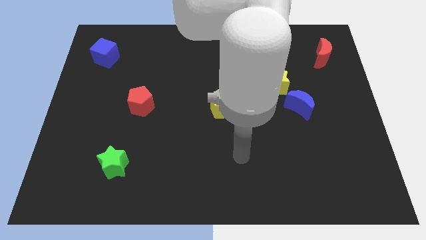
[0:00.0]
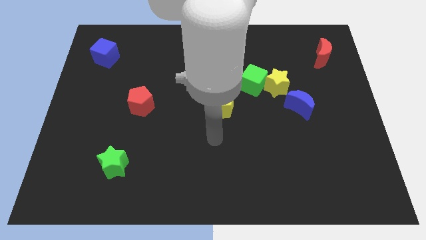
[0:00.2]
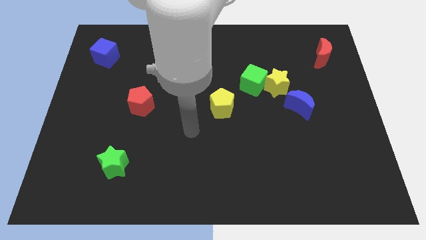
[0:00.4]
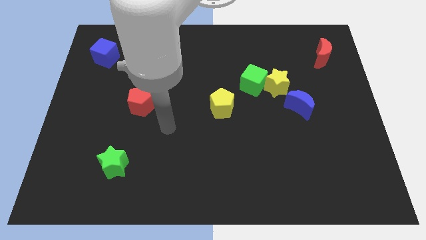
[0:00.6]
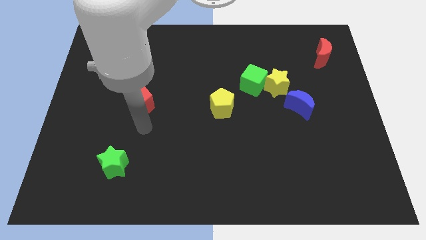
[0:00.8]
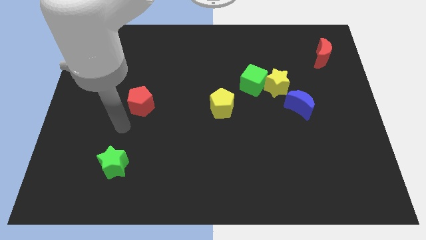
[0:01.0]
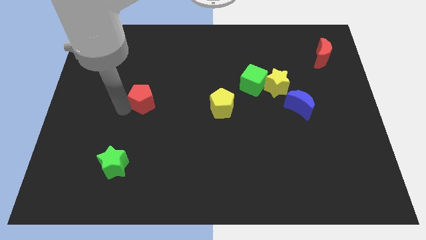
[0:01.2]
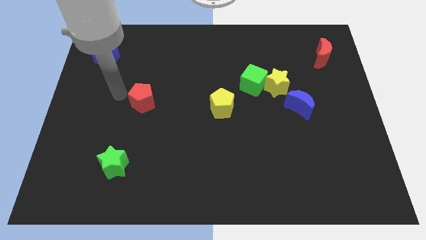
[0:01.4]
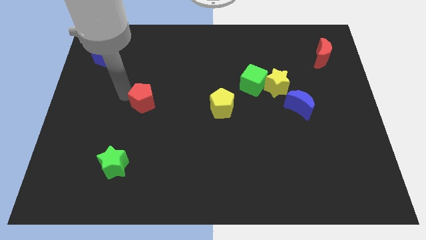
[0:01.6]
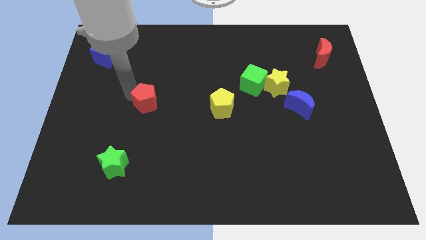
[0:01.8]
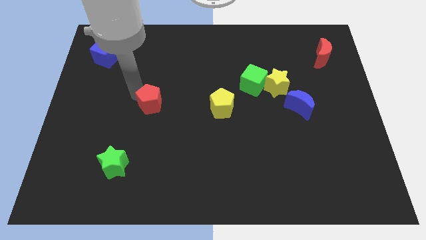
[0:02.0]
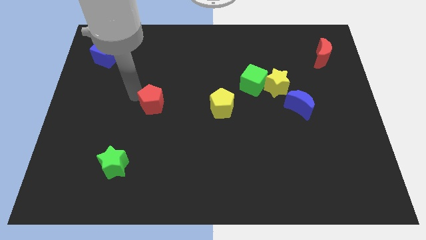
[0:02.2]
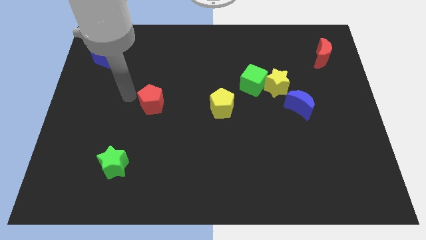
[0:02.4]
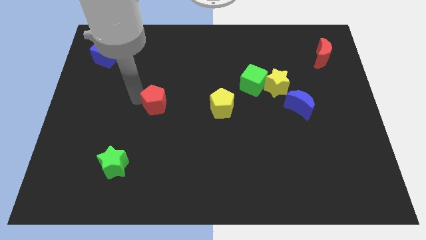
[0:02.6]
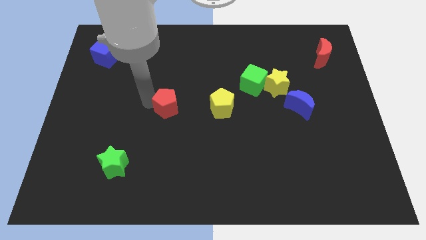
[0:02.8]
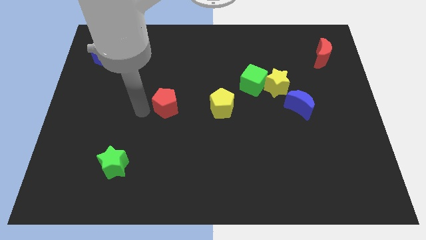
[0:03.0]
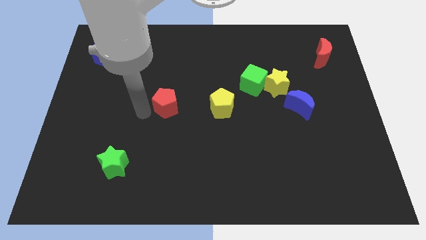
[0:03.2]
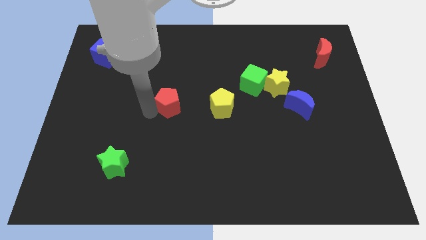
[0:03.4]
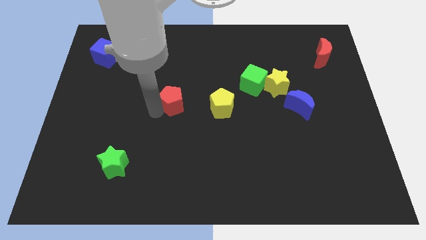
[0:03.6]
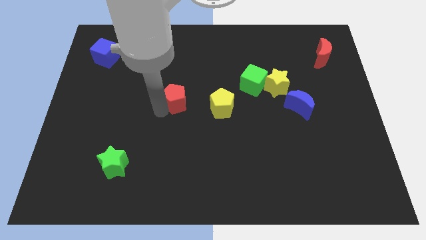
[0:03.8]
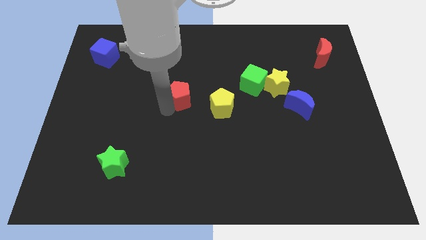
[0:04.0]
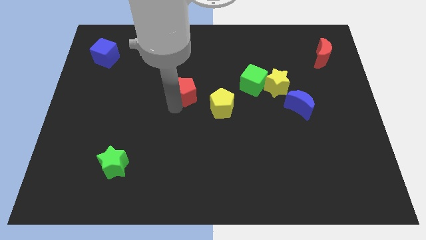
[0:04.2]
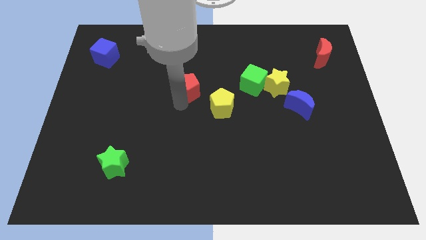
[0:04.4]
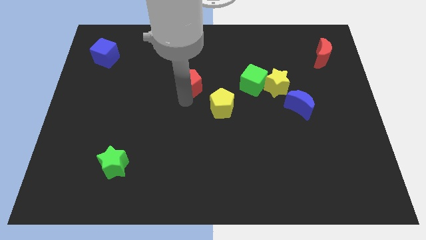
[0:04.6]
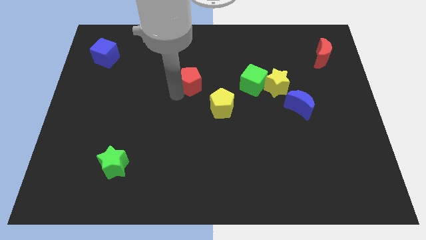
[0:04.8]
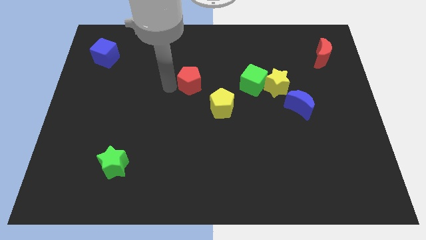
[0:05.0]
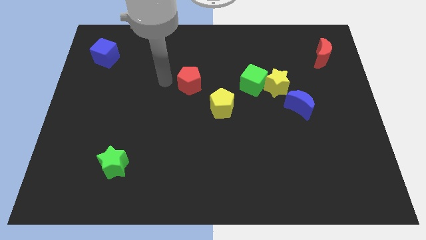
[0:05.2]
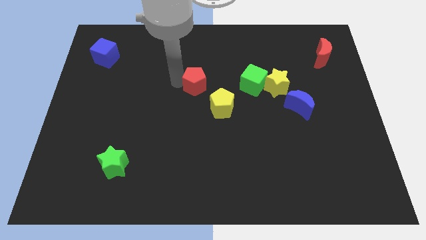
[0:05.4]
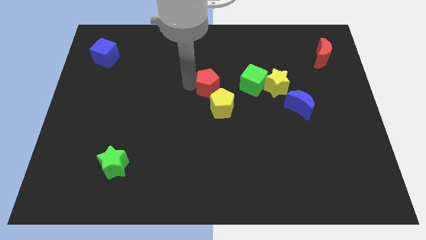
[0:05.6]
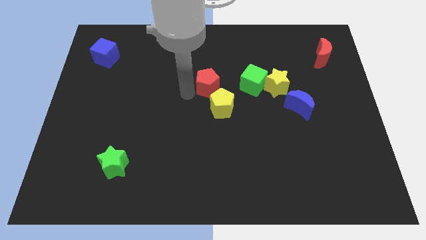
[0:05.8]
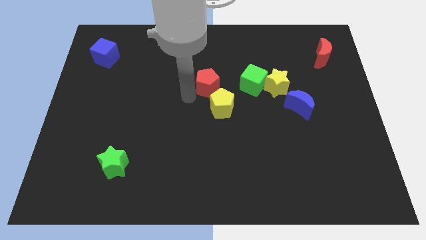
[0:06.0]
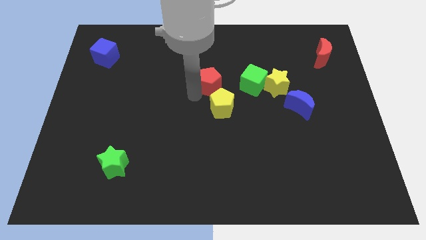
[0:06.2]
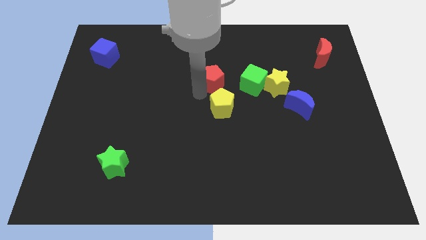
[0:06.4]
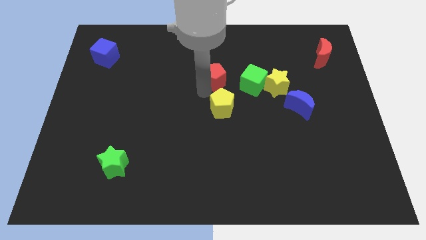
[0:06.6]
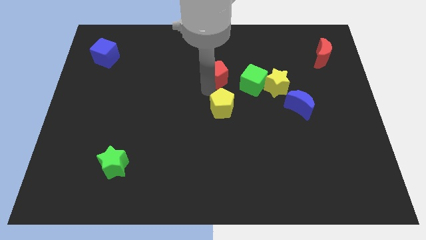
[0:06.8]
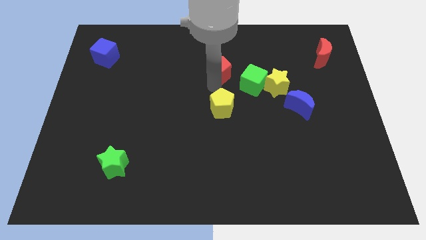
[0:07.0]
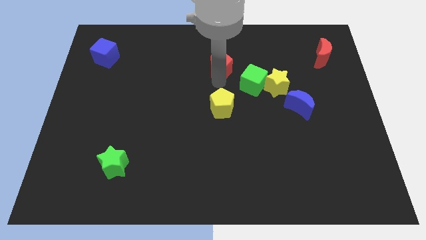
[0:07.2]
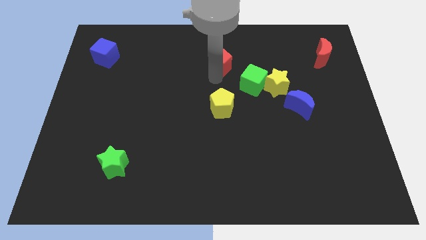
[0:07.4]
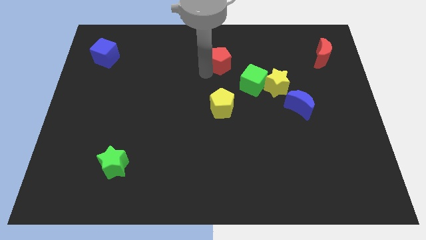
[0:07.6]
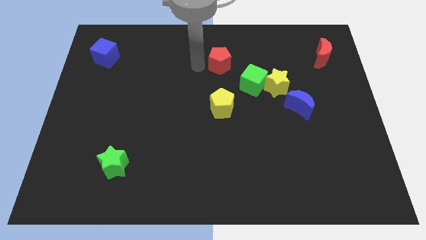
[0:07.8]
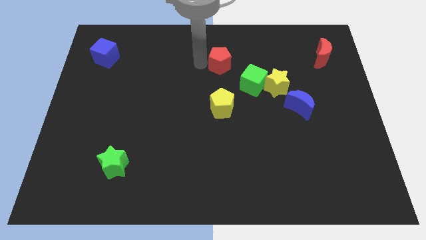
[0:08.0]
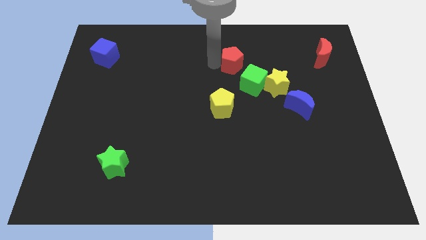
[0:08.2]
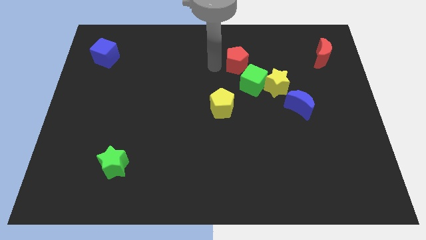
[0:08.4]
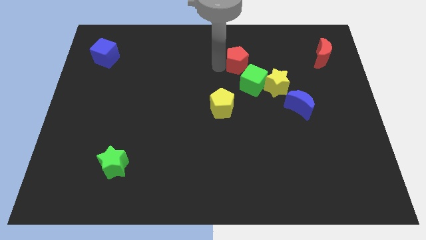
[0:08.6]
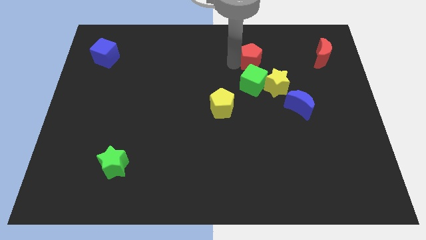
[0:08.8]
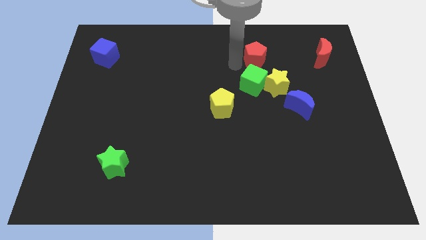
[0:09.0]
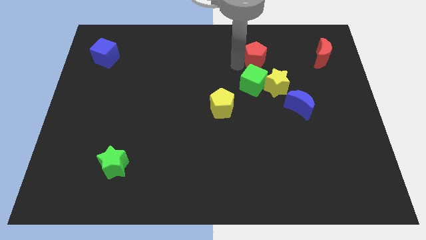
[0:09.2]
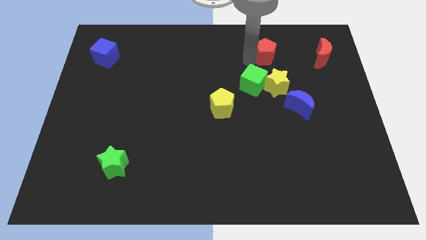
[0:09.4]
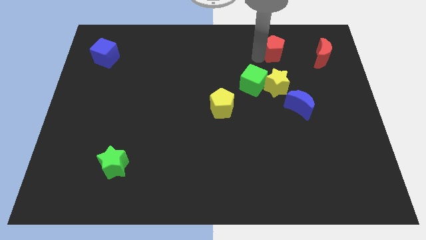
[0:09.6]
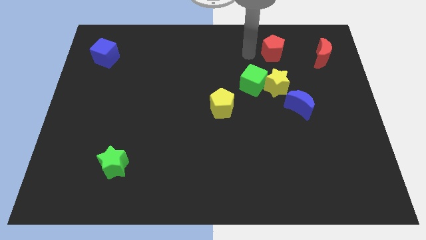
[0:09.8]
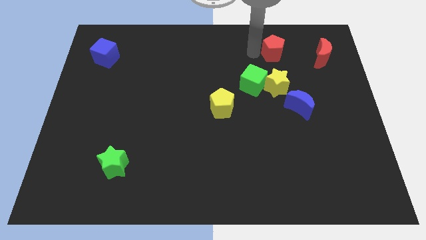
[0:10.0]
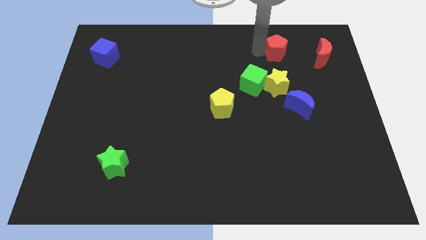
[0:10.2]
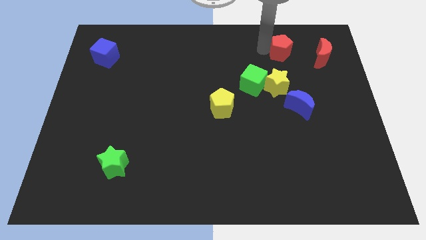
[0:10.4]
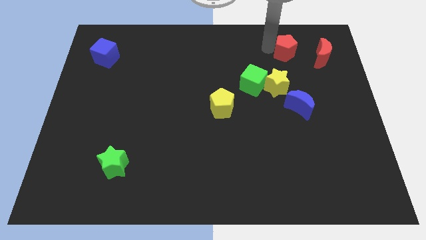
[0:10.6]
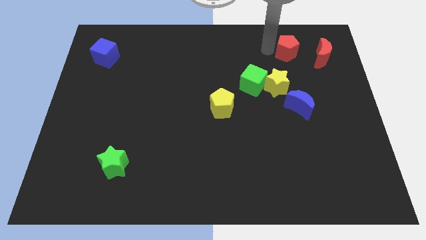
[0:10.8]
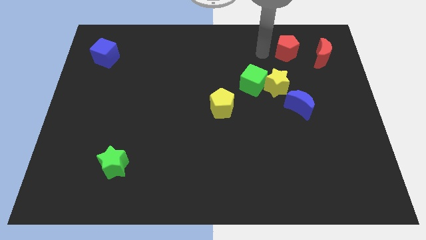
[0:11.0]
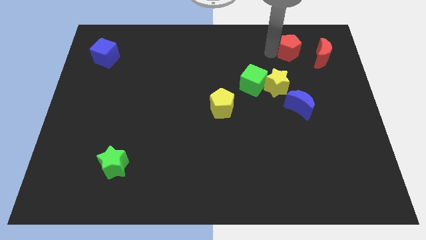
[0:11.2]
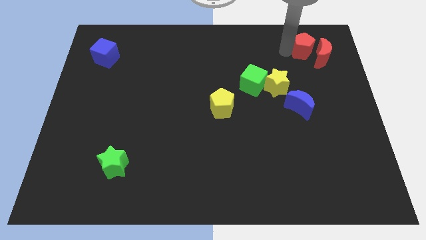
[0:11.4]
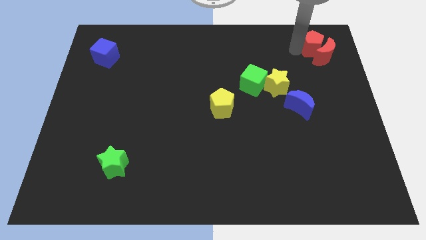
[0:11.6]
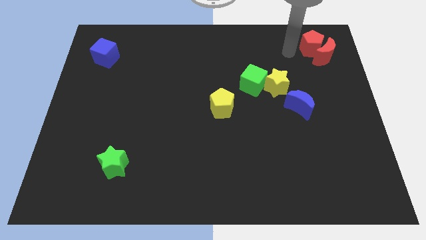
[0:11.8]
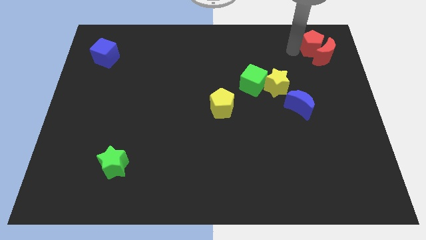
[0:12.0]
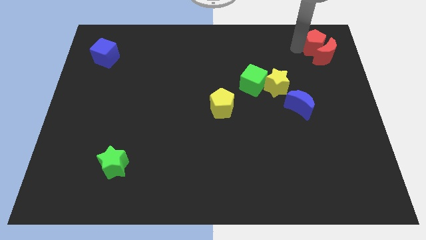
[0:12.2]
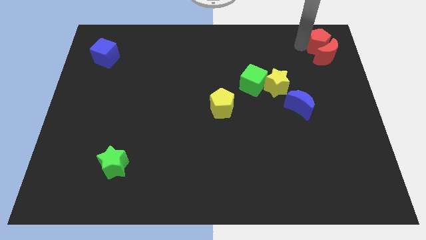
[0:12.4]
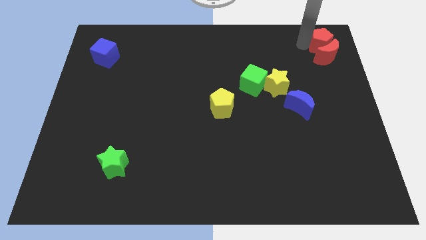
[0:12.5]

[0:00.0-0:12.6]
push the red pentagon to the top right corner

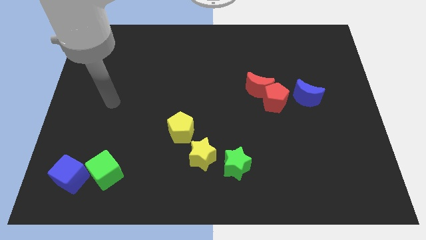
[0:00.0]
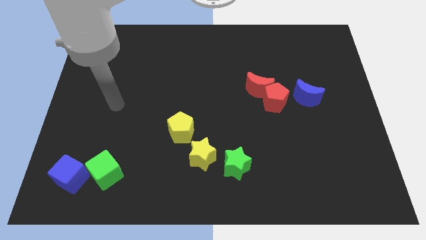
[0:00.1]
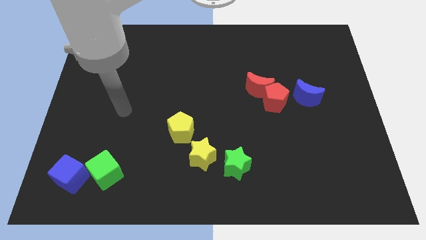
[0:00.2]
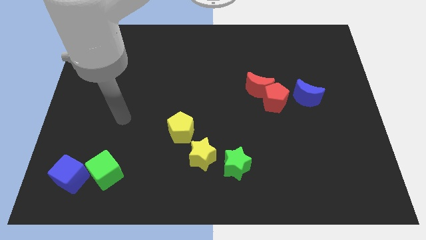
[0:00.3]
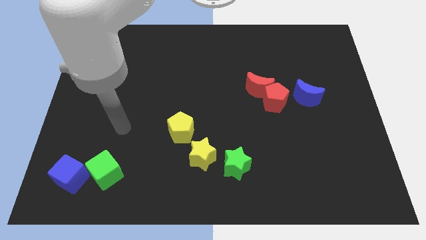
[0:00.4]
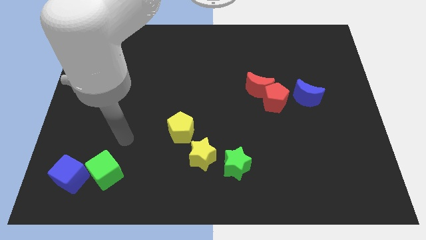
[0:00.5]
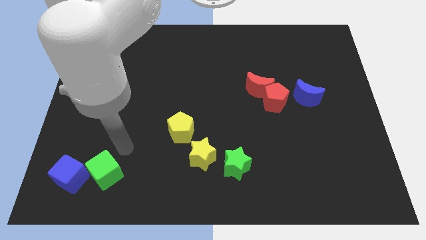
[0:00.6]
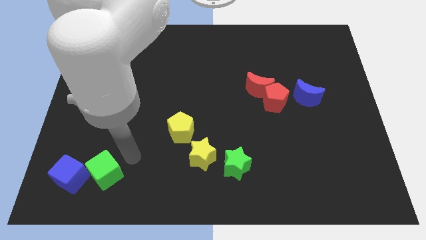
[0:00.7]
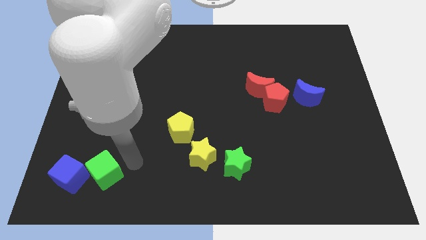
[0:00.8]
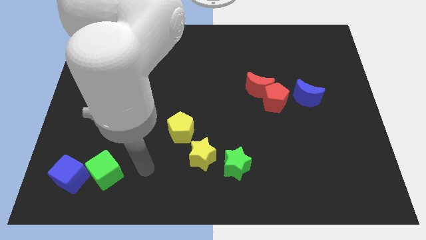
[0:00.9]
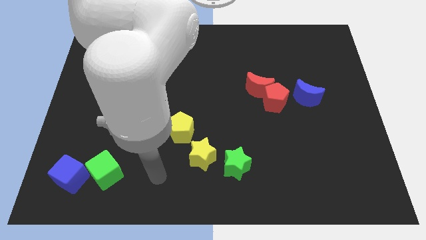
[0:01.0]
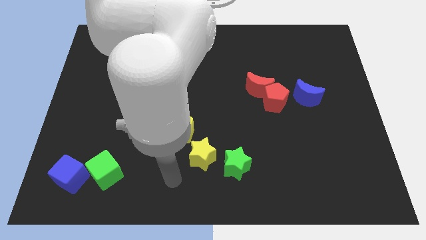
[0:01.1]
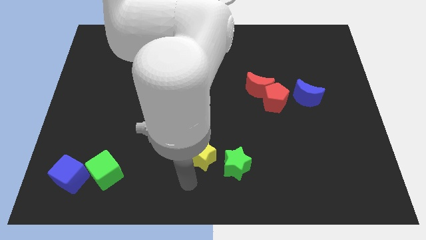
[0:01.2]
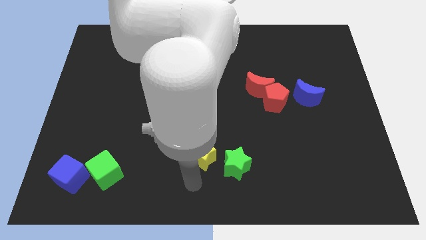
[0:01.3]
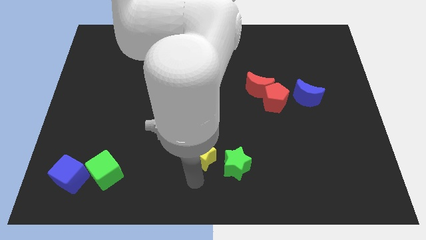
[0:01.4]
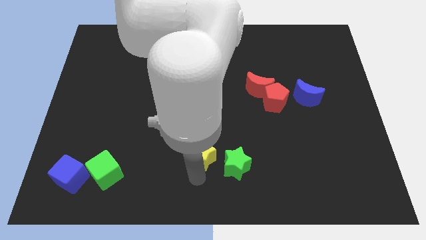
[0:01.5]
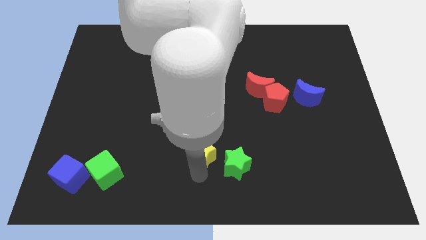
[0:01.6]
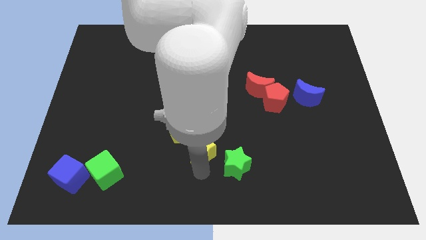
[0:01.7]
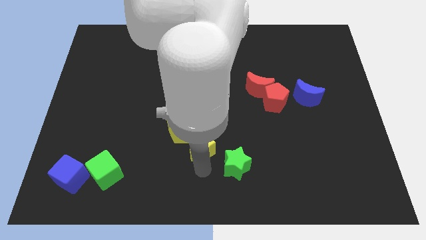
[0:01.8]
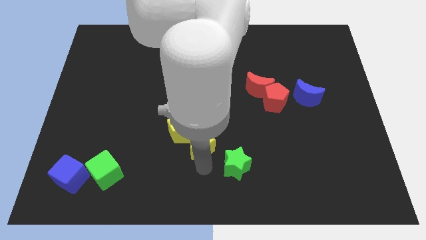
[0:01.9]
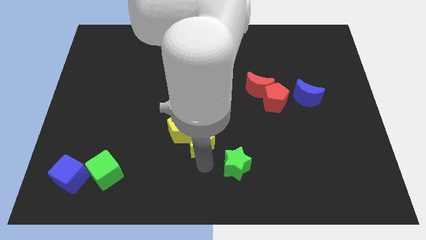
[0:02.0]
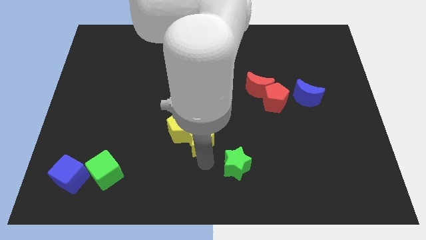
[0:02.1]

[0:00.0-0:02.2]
push the yellow star to the middle of the board
